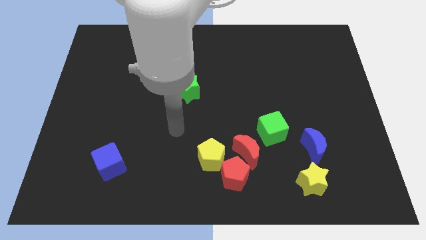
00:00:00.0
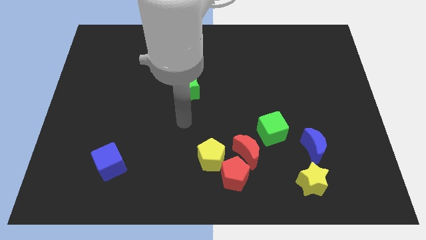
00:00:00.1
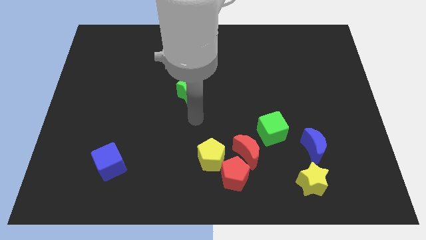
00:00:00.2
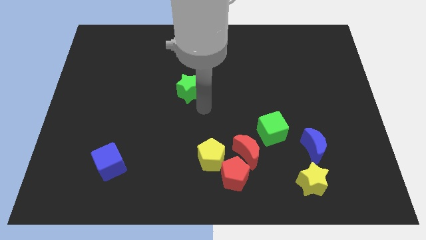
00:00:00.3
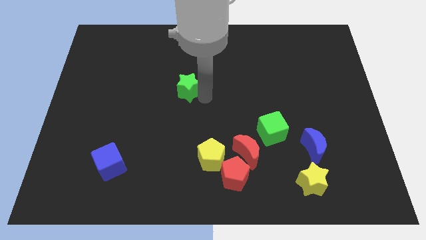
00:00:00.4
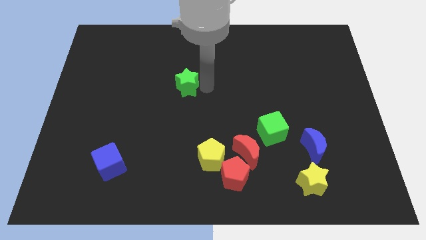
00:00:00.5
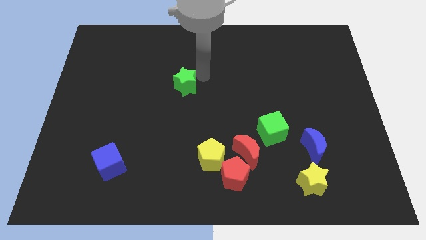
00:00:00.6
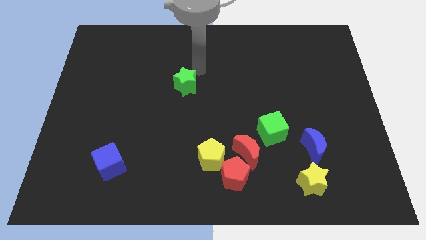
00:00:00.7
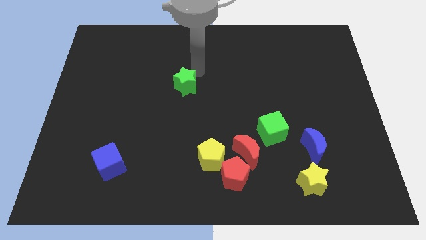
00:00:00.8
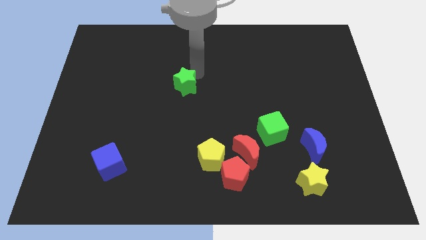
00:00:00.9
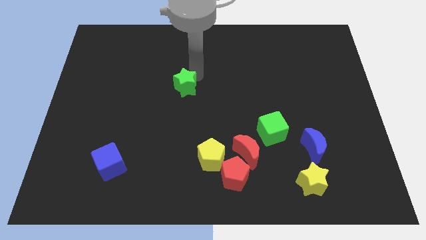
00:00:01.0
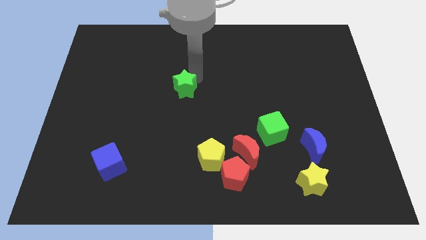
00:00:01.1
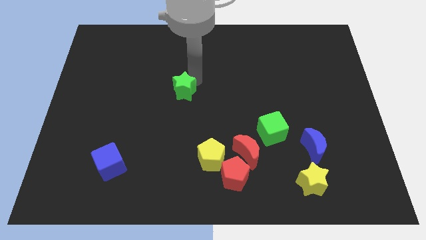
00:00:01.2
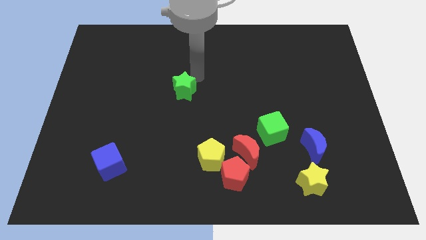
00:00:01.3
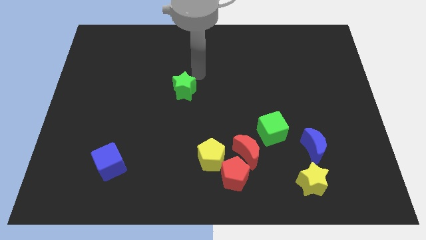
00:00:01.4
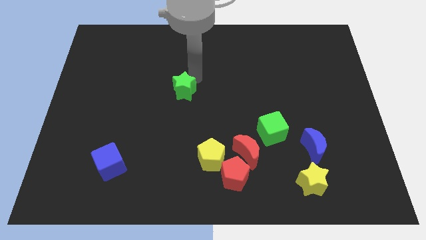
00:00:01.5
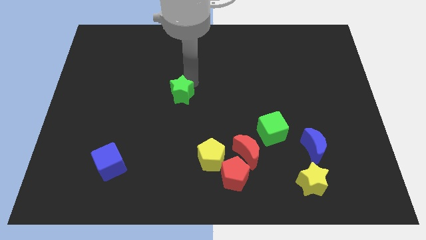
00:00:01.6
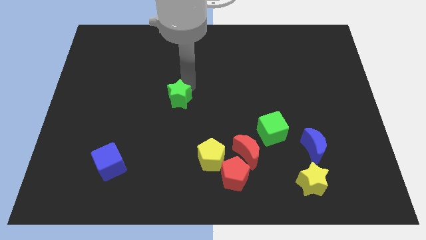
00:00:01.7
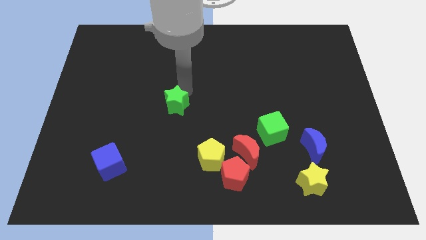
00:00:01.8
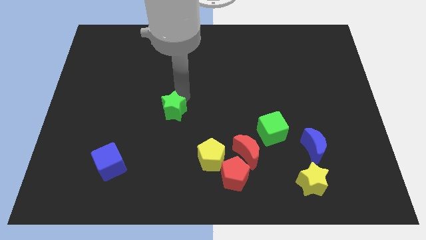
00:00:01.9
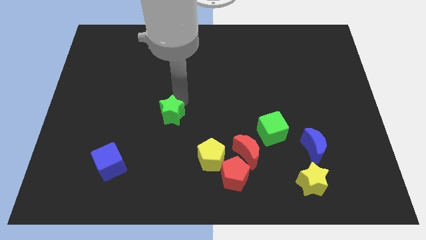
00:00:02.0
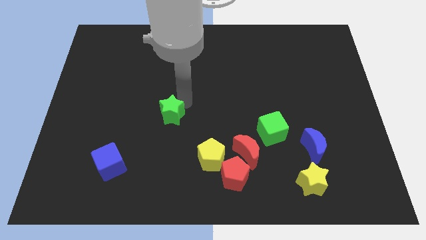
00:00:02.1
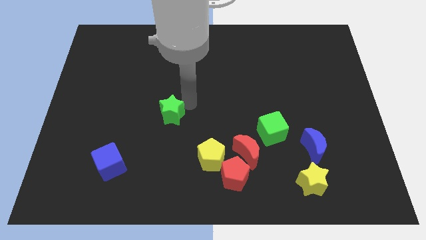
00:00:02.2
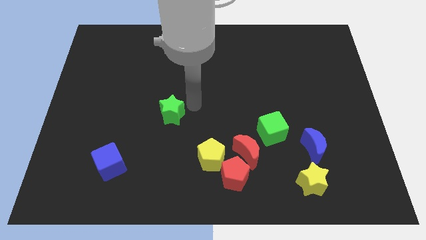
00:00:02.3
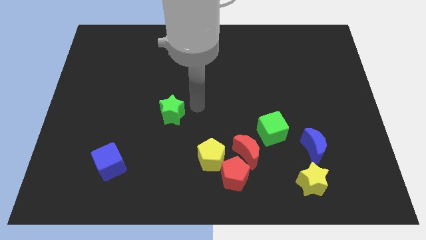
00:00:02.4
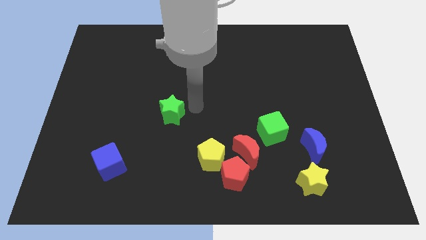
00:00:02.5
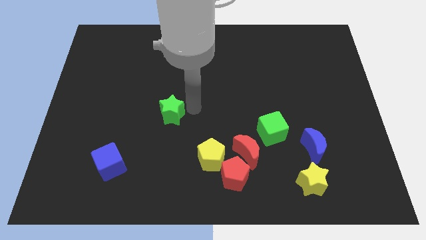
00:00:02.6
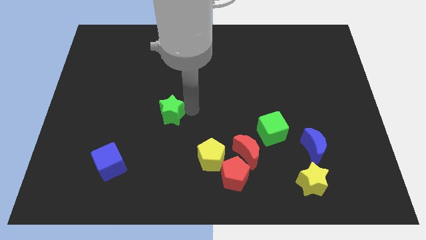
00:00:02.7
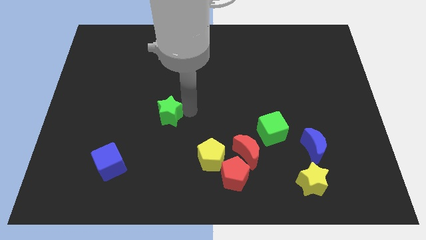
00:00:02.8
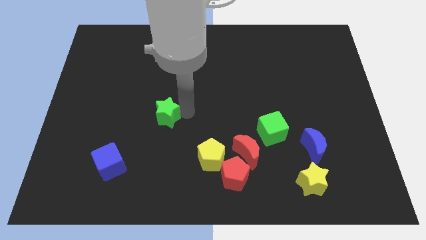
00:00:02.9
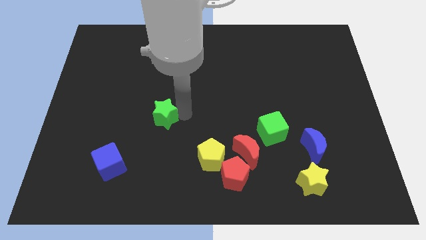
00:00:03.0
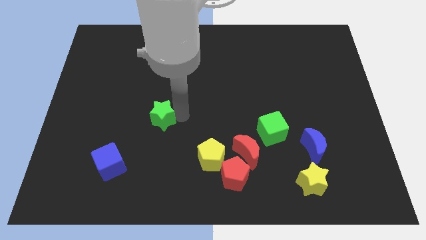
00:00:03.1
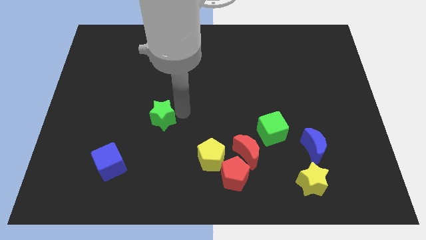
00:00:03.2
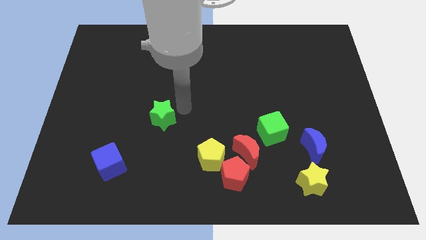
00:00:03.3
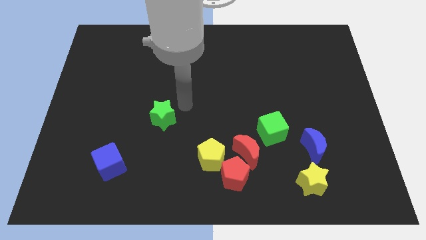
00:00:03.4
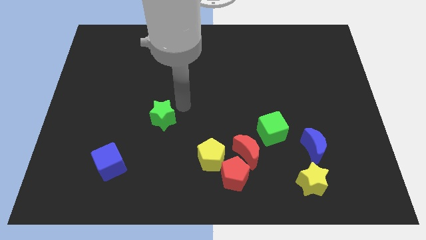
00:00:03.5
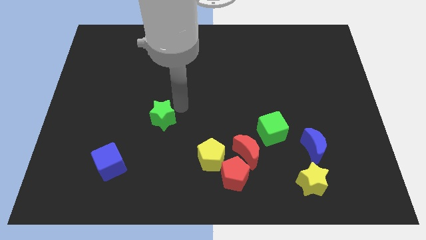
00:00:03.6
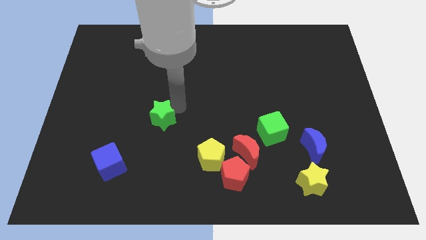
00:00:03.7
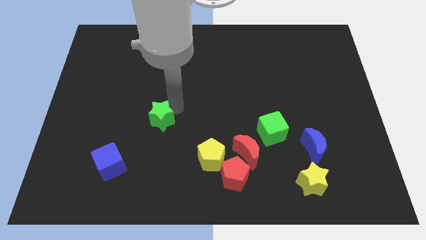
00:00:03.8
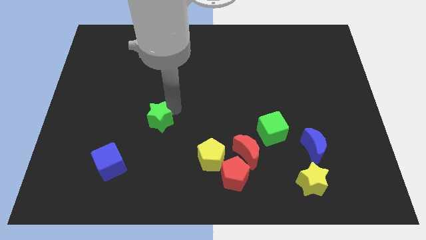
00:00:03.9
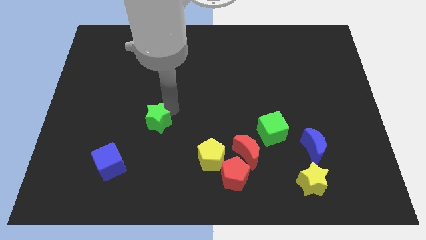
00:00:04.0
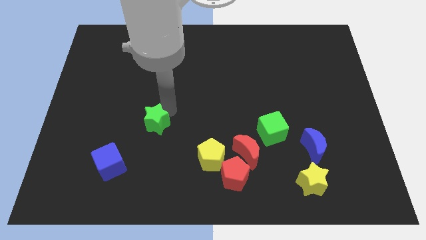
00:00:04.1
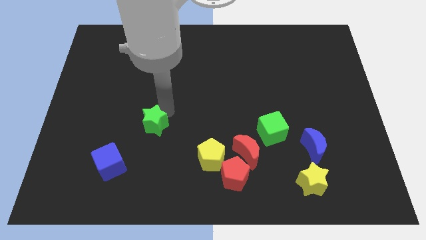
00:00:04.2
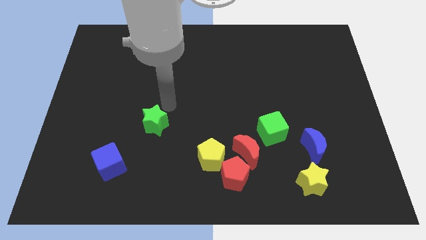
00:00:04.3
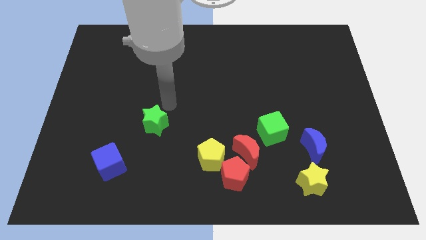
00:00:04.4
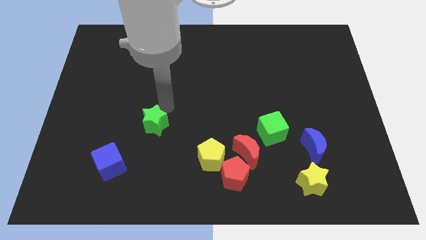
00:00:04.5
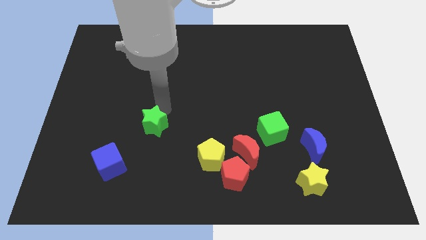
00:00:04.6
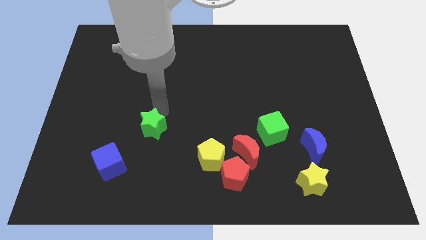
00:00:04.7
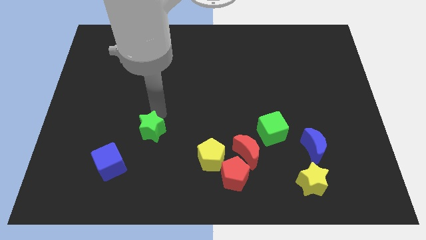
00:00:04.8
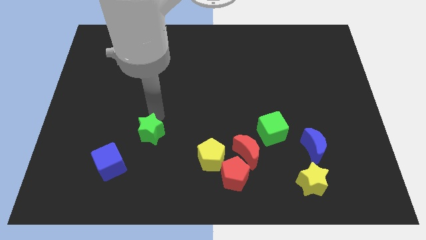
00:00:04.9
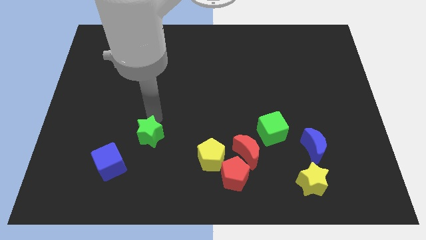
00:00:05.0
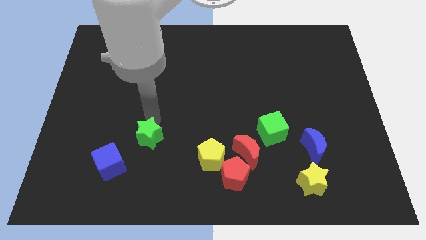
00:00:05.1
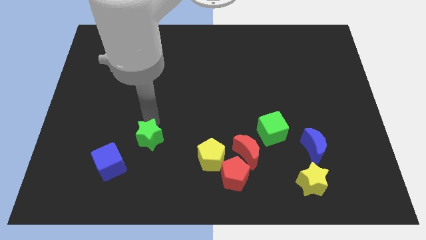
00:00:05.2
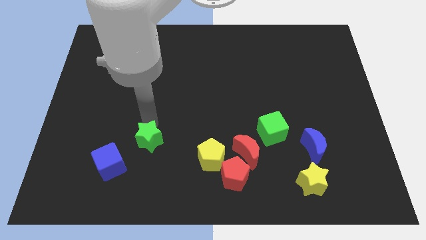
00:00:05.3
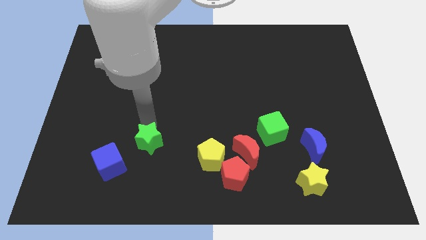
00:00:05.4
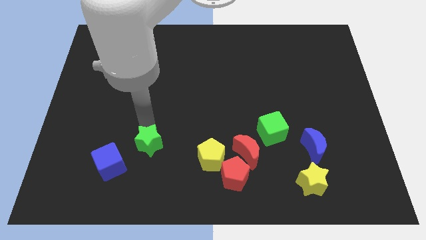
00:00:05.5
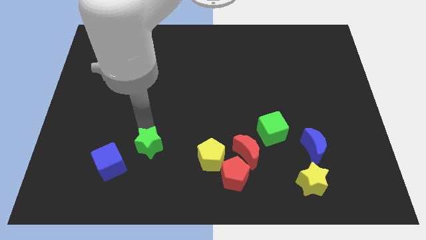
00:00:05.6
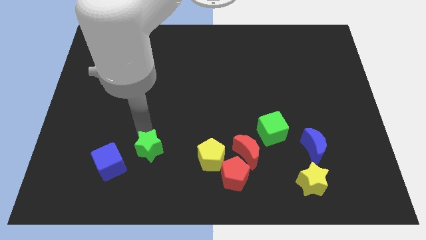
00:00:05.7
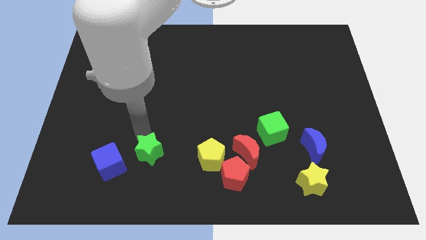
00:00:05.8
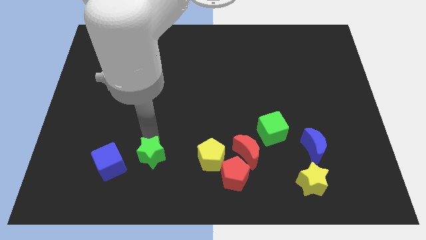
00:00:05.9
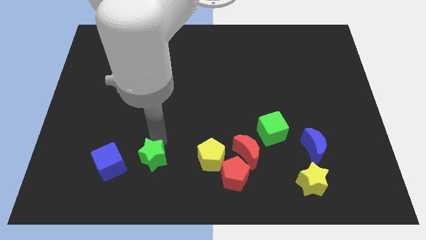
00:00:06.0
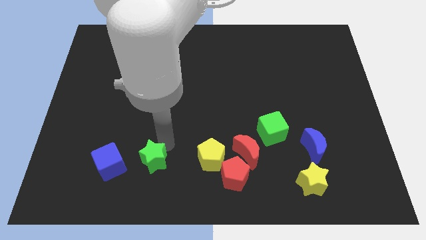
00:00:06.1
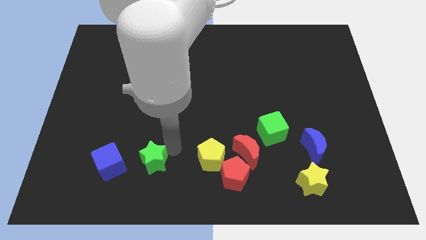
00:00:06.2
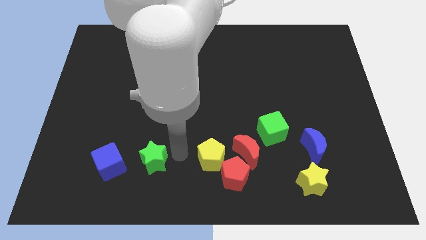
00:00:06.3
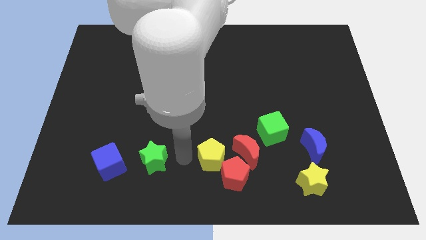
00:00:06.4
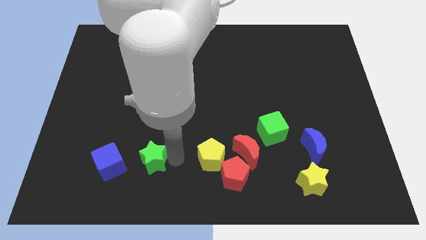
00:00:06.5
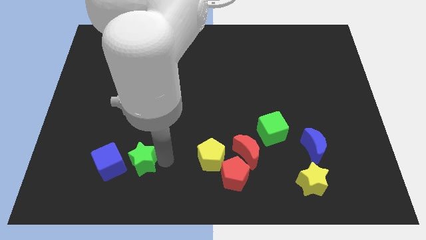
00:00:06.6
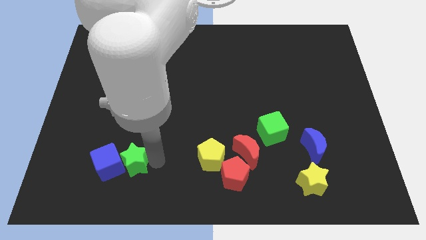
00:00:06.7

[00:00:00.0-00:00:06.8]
push the green star towards the blue cube

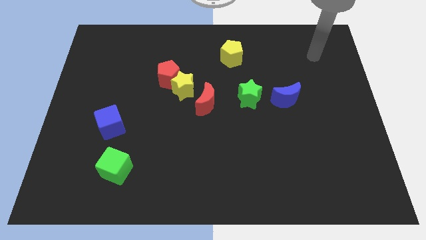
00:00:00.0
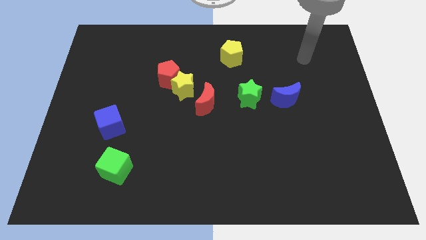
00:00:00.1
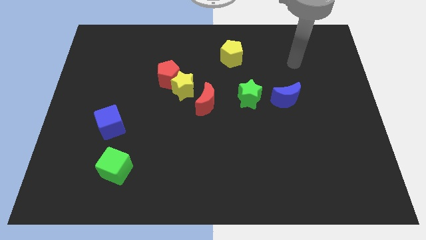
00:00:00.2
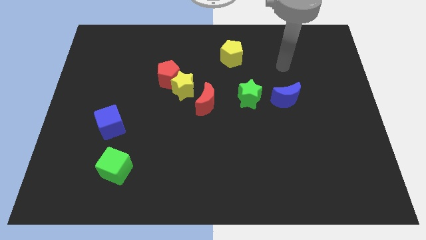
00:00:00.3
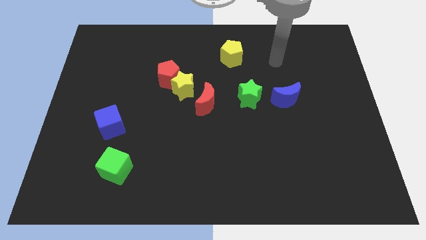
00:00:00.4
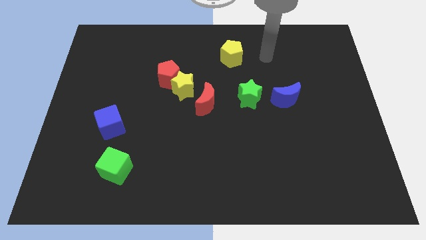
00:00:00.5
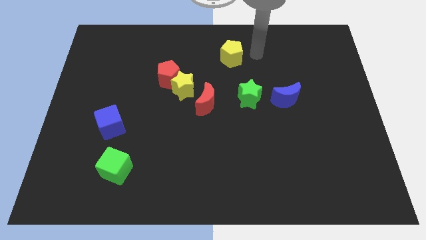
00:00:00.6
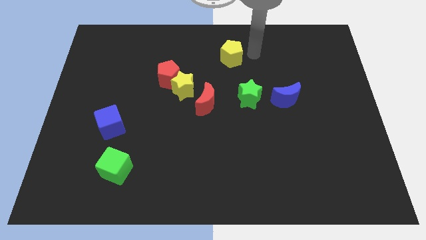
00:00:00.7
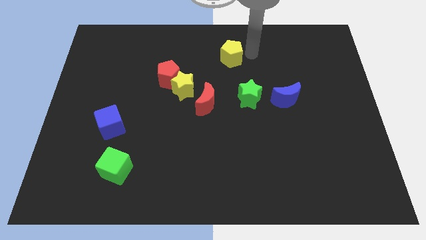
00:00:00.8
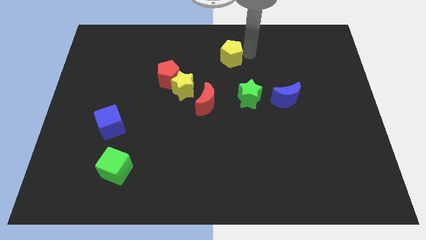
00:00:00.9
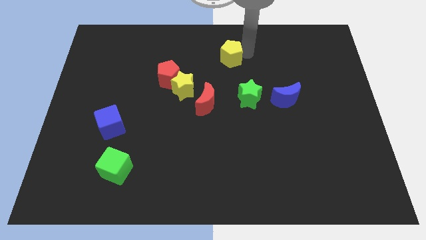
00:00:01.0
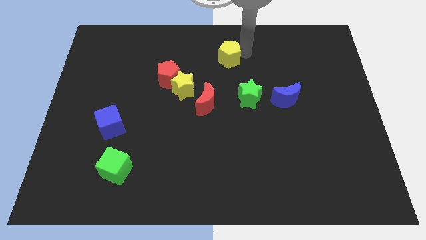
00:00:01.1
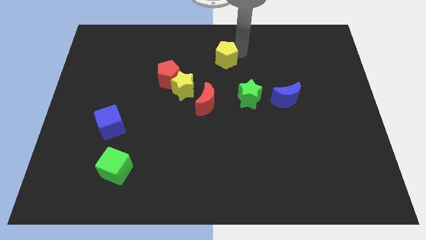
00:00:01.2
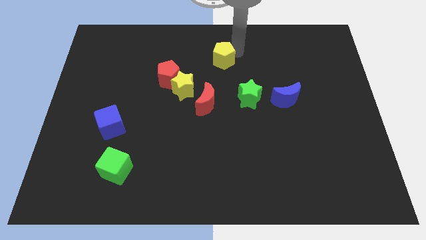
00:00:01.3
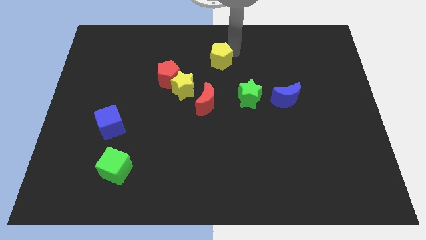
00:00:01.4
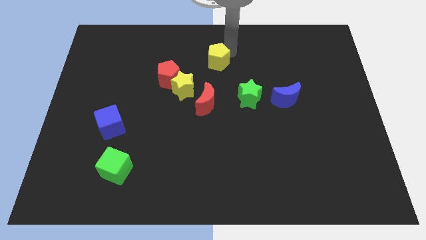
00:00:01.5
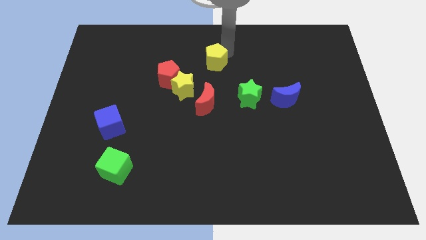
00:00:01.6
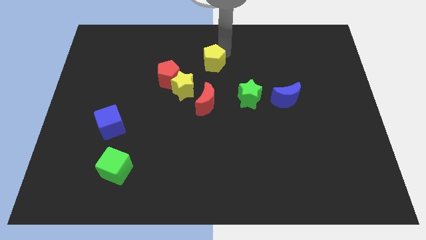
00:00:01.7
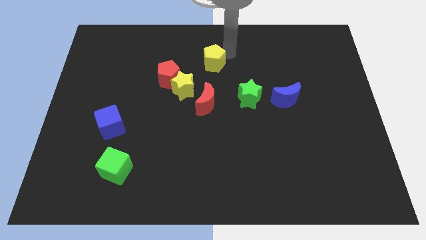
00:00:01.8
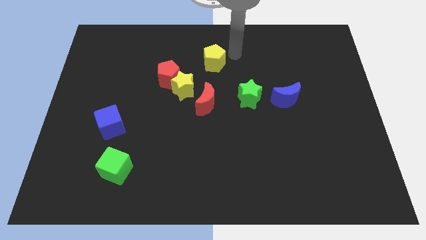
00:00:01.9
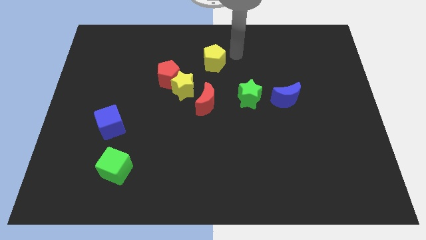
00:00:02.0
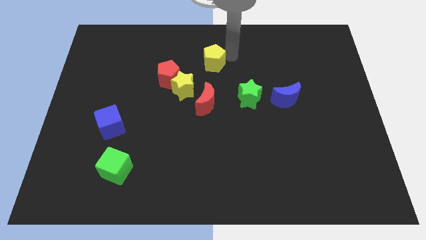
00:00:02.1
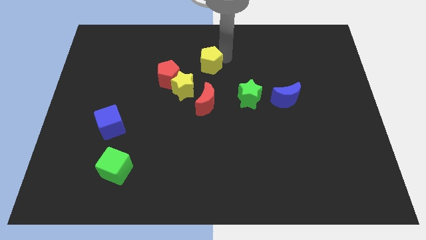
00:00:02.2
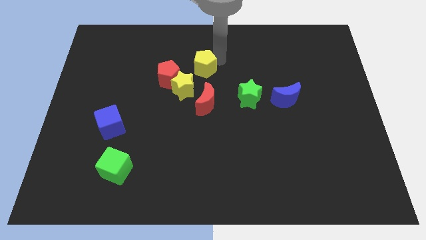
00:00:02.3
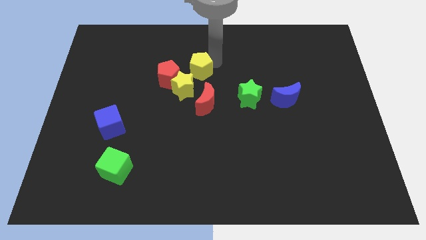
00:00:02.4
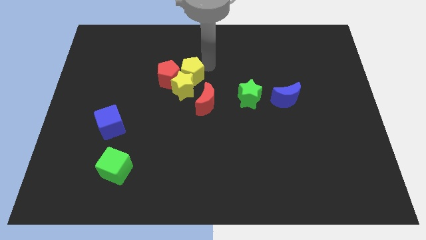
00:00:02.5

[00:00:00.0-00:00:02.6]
push the yellow pentagon towards the red pentagon
